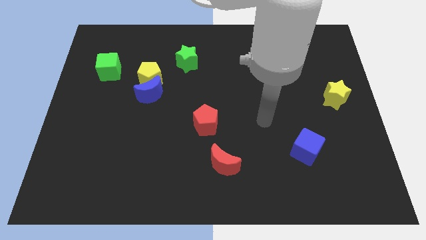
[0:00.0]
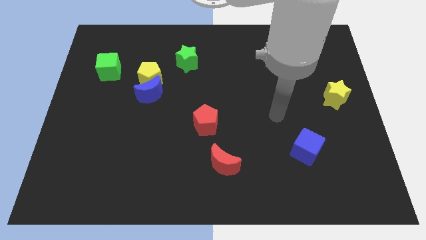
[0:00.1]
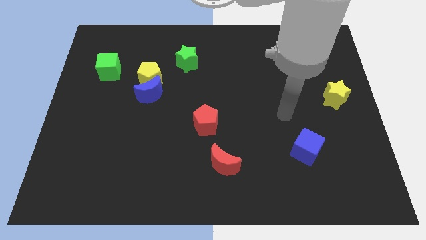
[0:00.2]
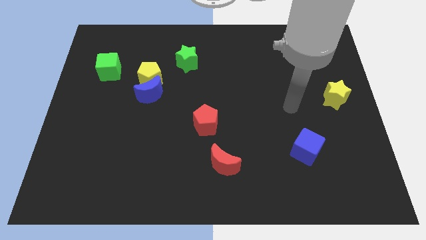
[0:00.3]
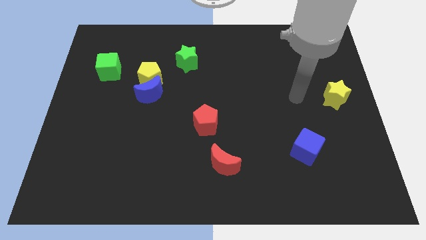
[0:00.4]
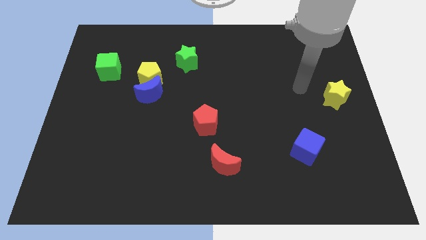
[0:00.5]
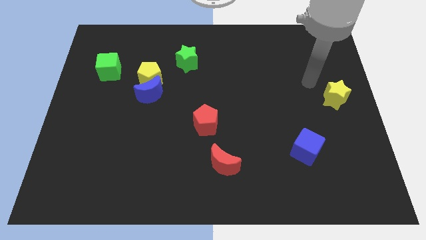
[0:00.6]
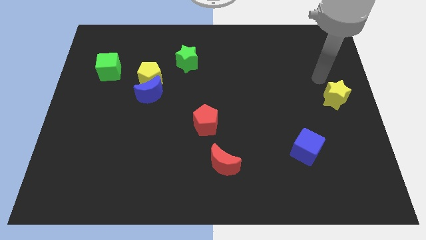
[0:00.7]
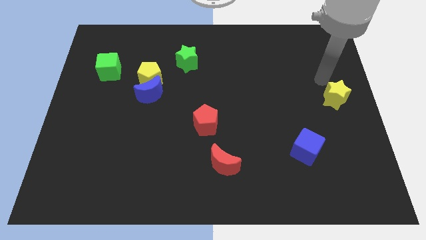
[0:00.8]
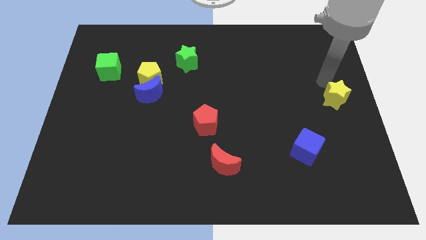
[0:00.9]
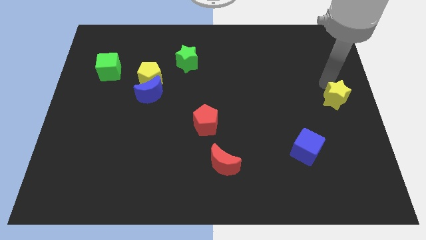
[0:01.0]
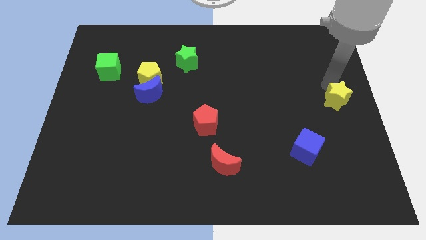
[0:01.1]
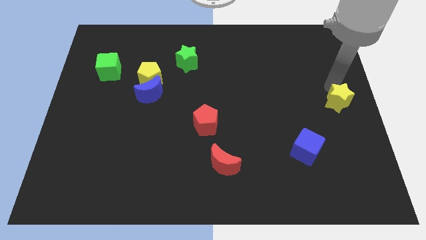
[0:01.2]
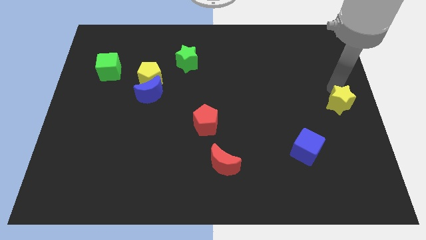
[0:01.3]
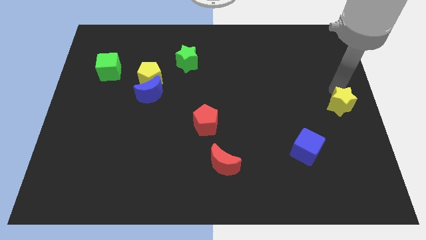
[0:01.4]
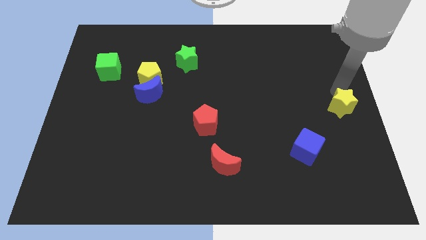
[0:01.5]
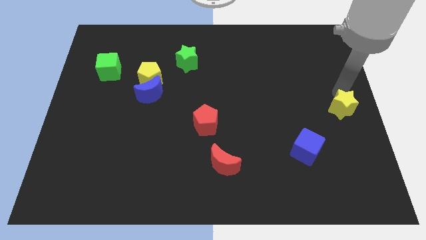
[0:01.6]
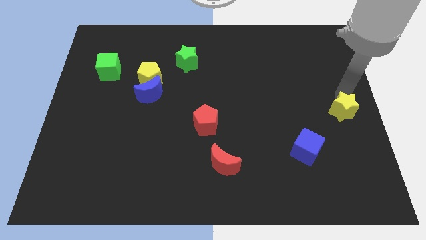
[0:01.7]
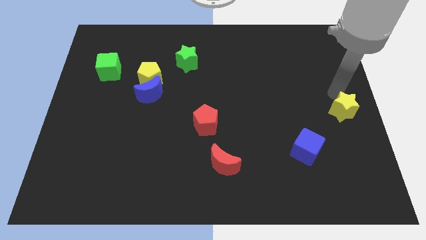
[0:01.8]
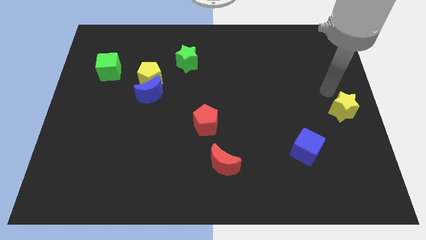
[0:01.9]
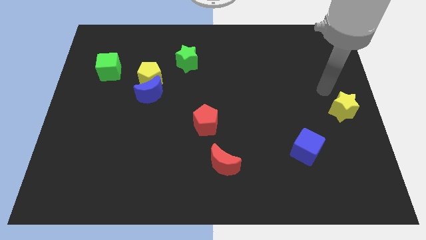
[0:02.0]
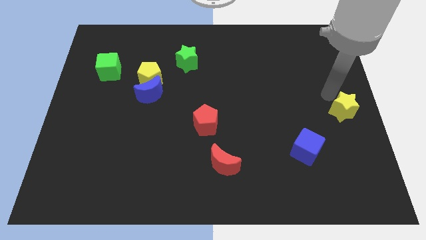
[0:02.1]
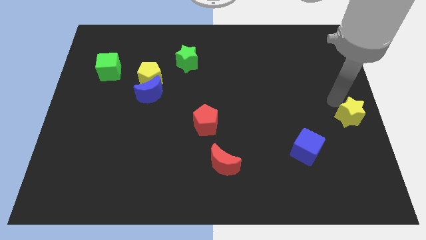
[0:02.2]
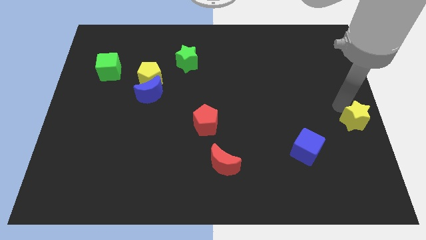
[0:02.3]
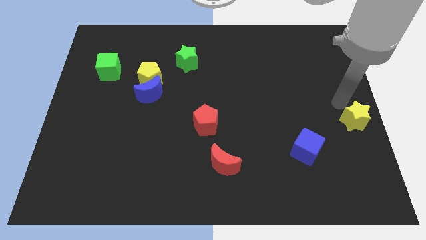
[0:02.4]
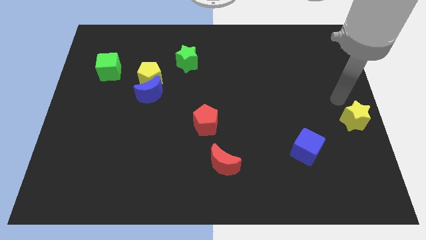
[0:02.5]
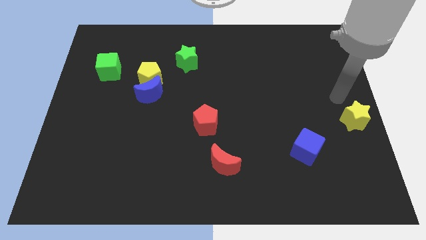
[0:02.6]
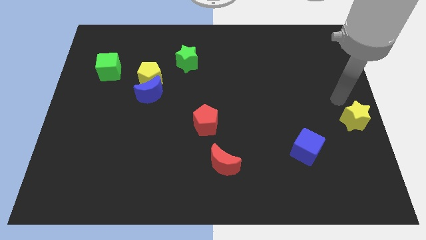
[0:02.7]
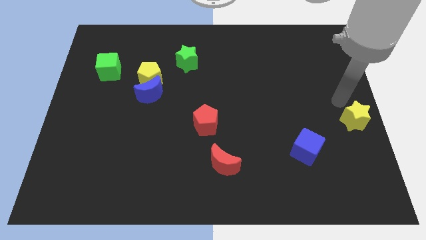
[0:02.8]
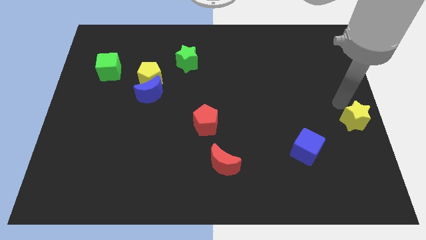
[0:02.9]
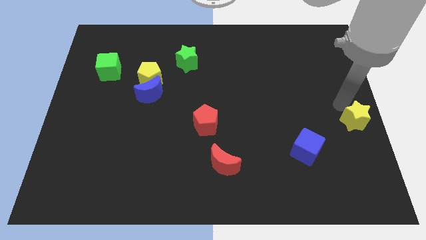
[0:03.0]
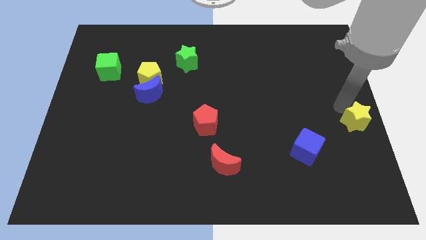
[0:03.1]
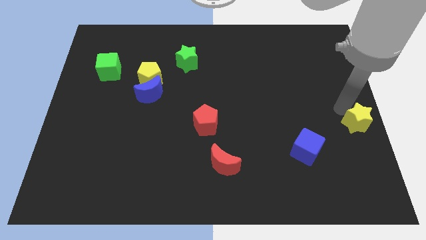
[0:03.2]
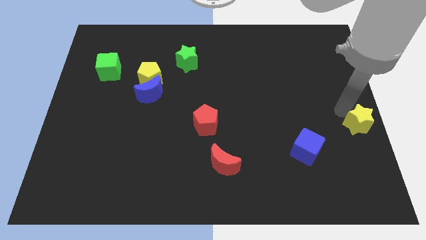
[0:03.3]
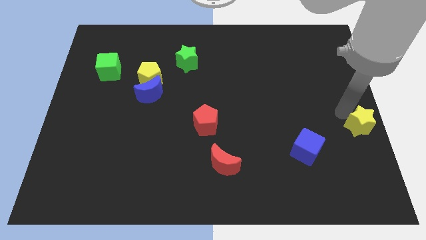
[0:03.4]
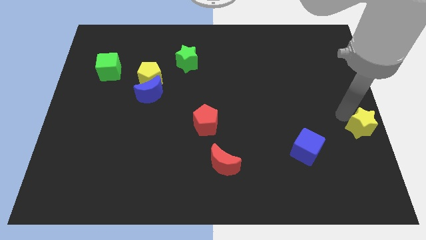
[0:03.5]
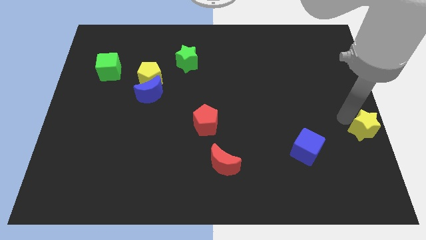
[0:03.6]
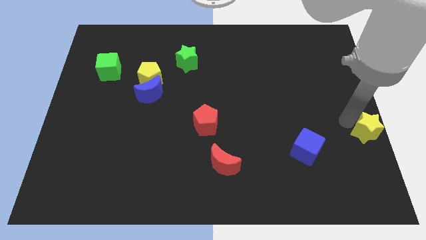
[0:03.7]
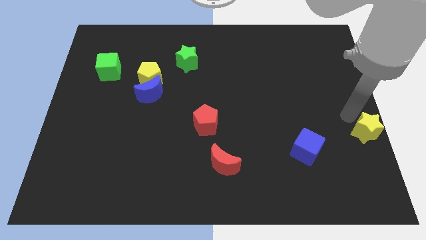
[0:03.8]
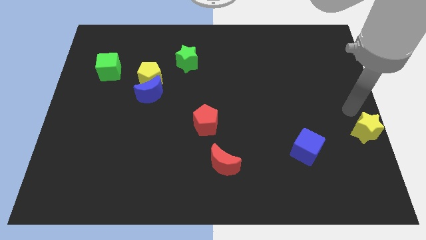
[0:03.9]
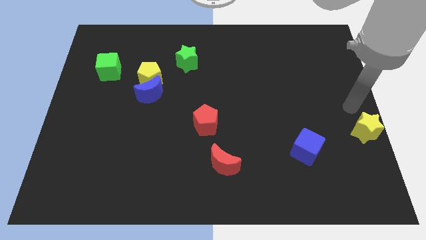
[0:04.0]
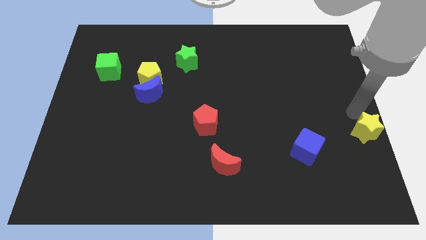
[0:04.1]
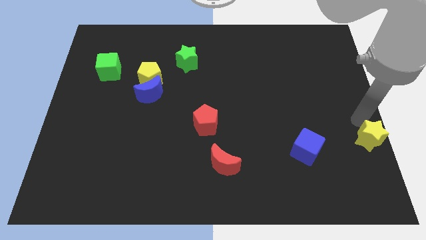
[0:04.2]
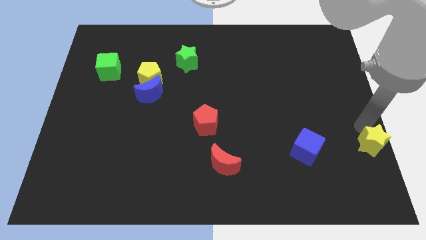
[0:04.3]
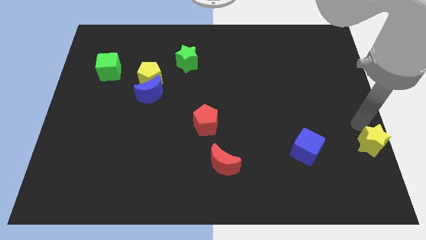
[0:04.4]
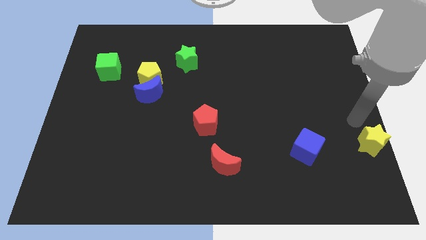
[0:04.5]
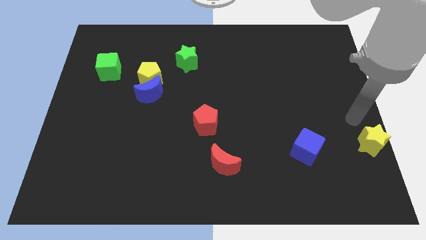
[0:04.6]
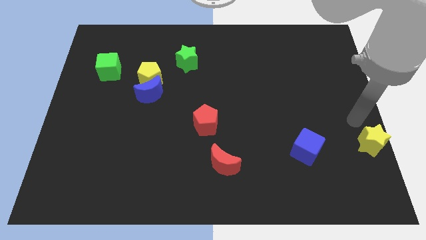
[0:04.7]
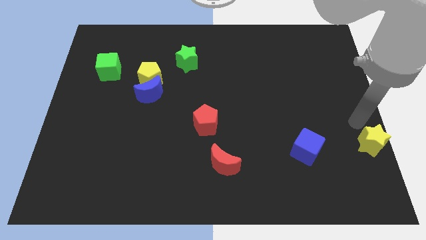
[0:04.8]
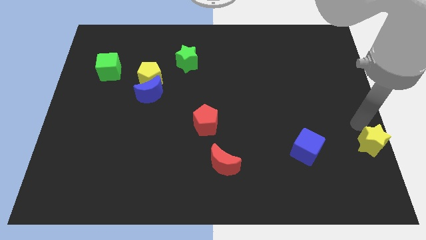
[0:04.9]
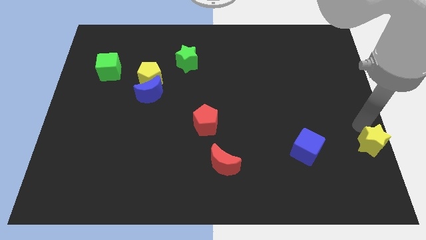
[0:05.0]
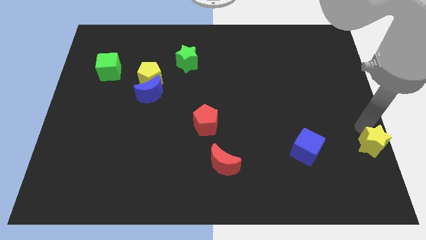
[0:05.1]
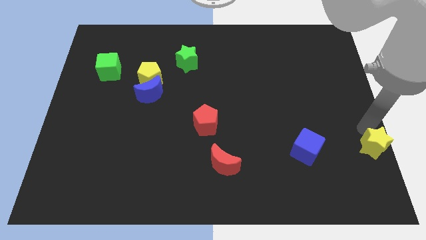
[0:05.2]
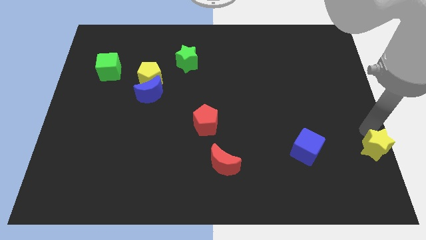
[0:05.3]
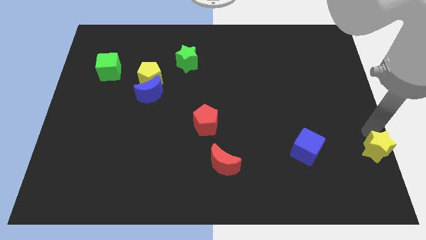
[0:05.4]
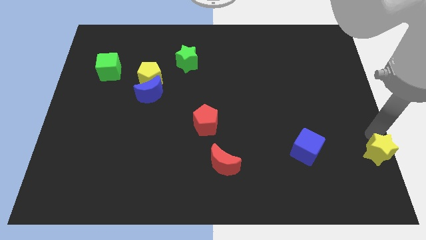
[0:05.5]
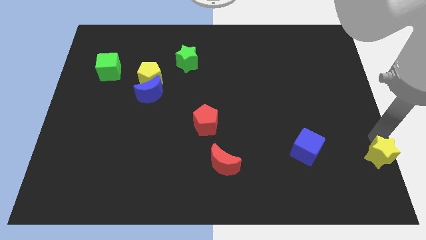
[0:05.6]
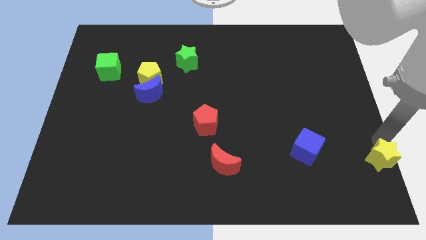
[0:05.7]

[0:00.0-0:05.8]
slide the yellow star to the bottom right
